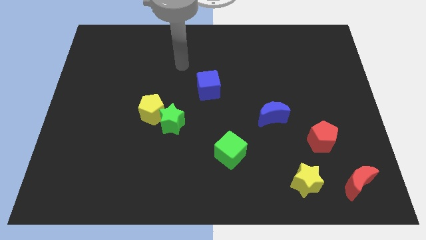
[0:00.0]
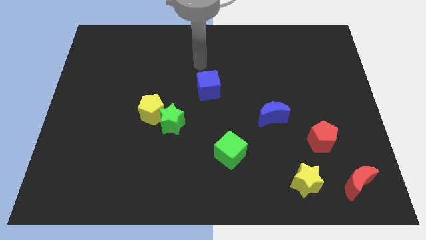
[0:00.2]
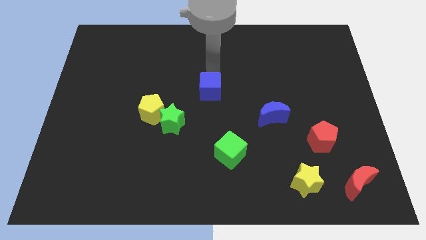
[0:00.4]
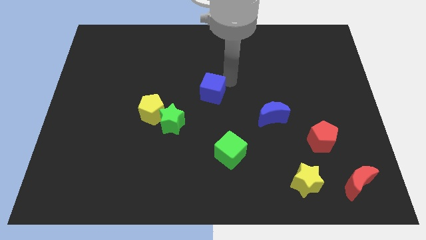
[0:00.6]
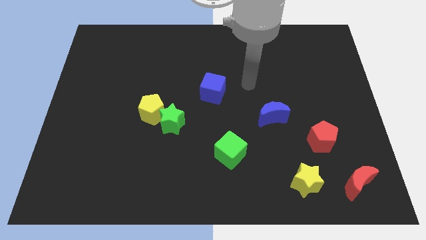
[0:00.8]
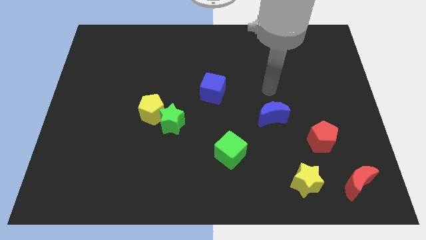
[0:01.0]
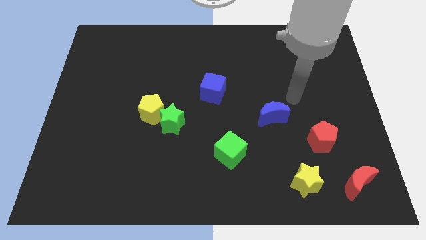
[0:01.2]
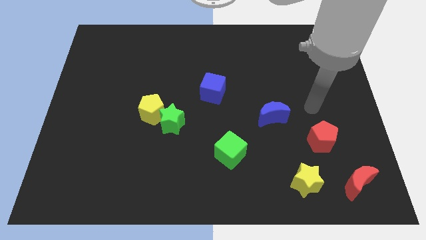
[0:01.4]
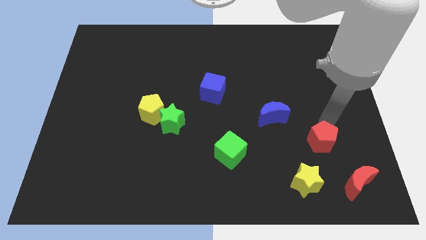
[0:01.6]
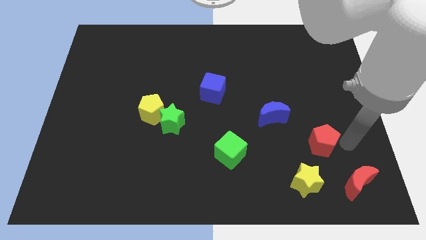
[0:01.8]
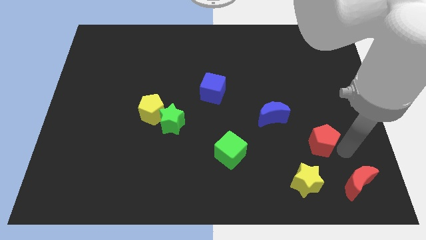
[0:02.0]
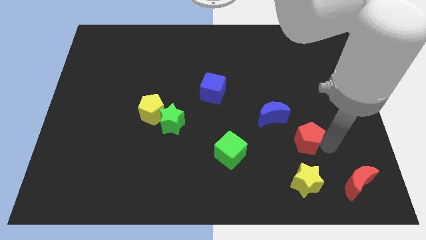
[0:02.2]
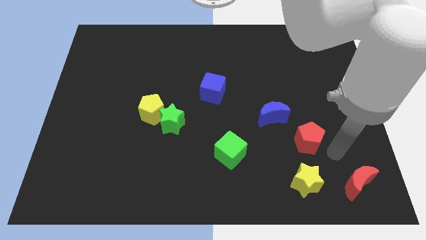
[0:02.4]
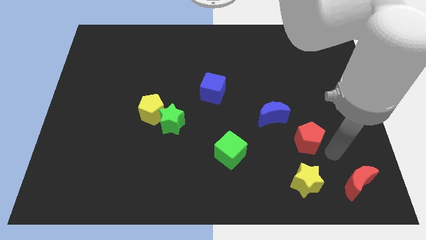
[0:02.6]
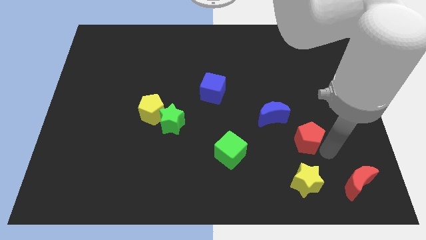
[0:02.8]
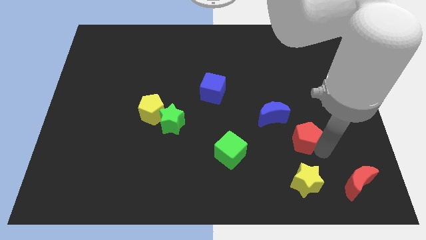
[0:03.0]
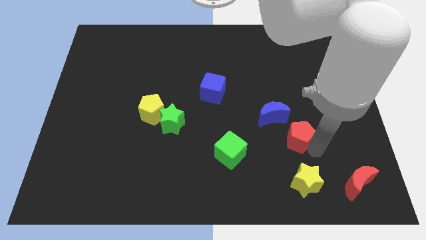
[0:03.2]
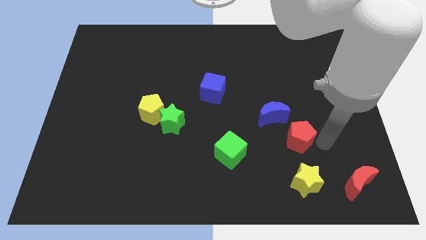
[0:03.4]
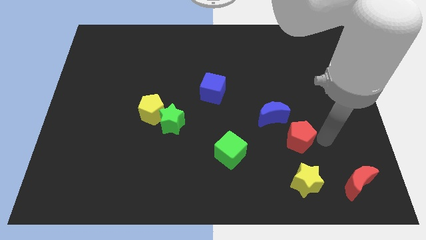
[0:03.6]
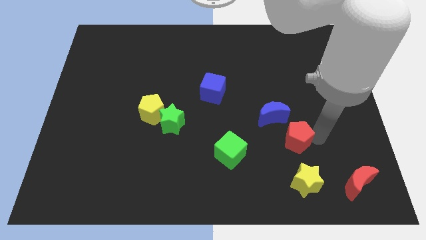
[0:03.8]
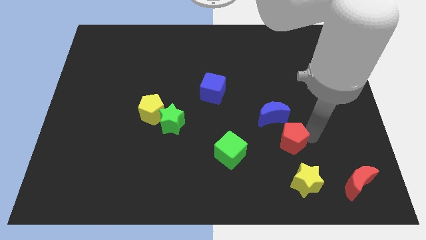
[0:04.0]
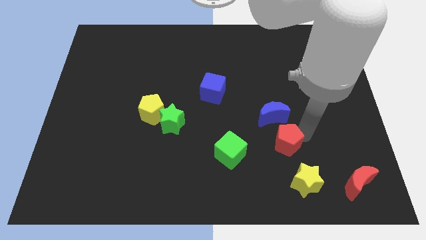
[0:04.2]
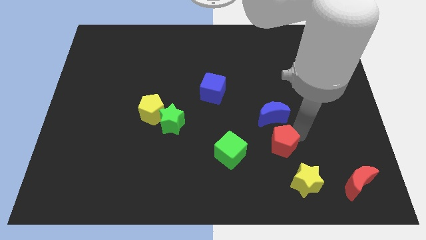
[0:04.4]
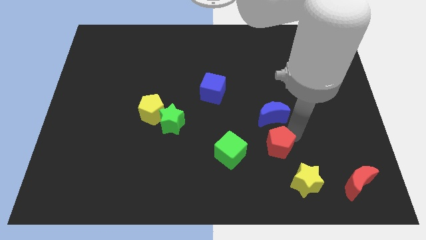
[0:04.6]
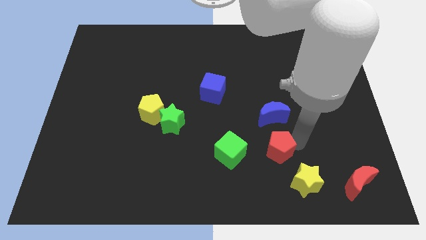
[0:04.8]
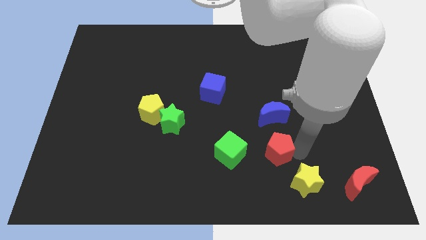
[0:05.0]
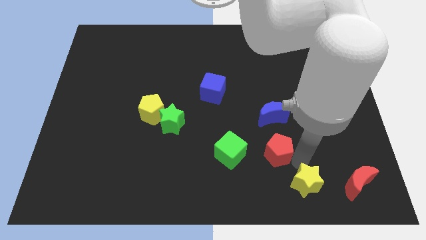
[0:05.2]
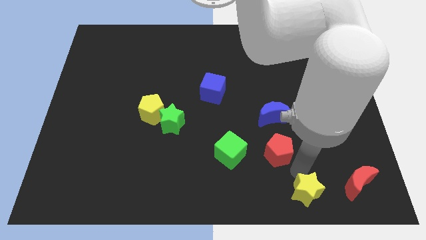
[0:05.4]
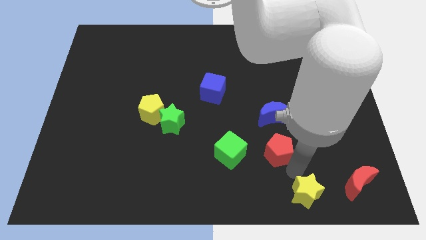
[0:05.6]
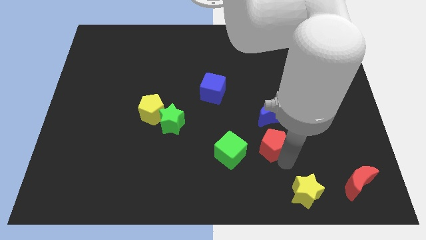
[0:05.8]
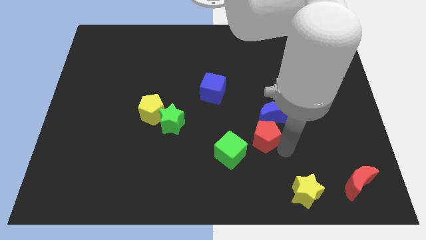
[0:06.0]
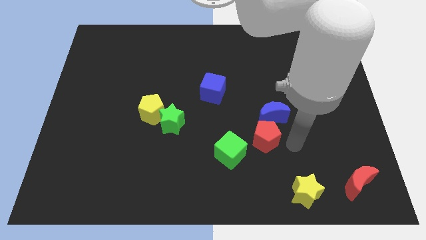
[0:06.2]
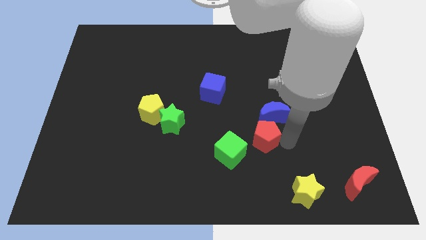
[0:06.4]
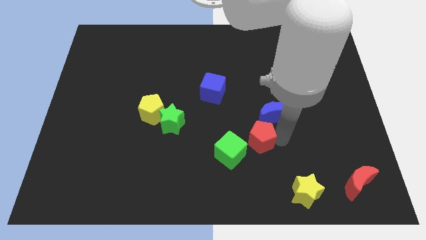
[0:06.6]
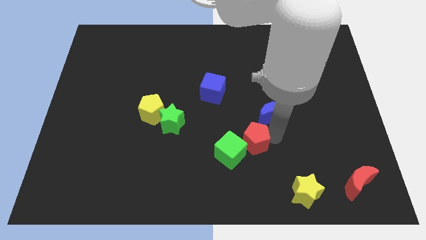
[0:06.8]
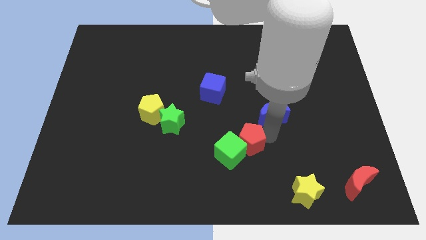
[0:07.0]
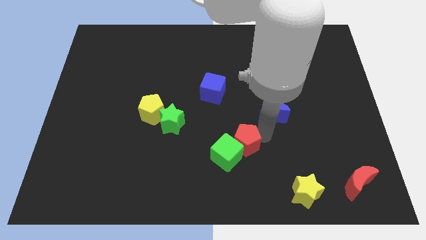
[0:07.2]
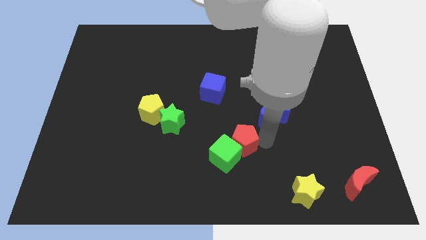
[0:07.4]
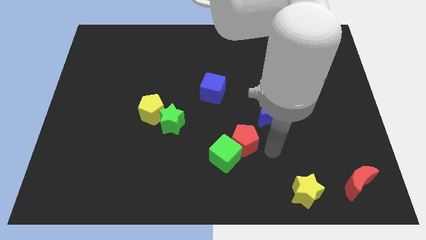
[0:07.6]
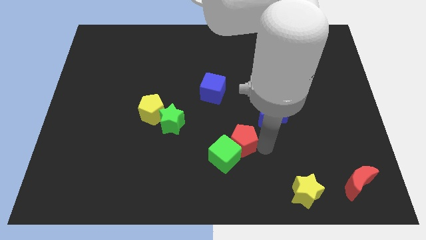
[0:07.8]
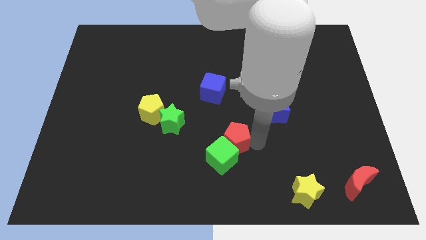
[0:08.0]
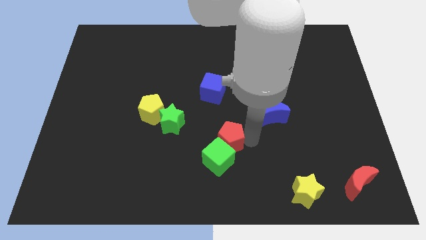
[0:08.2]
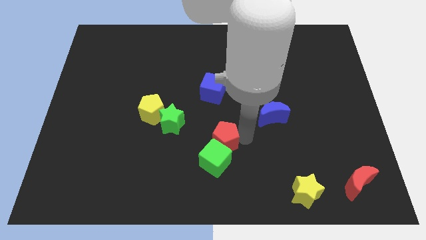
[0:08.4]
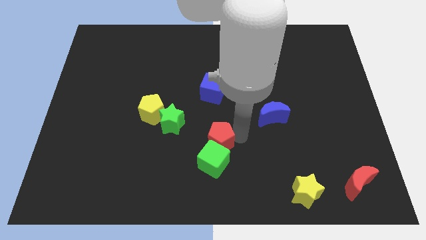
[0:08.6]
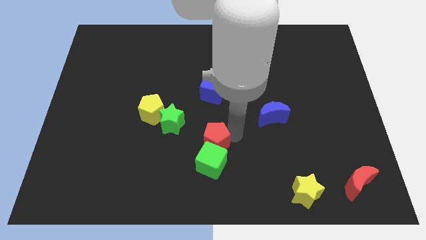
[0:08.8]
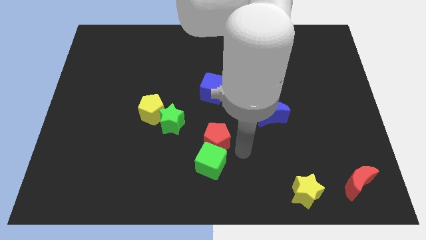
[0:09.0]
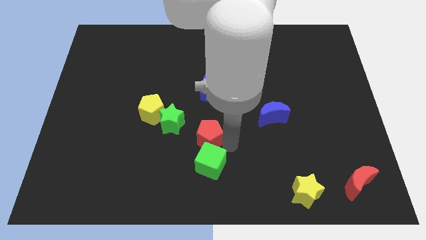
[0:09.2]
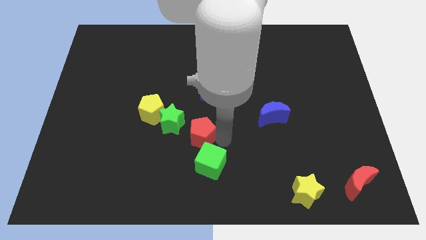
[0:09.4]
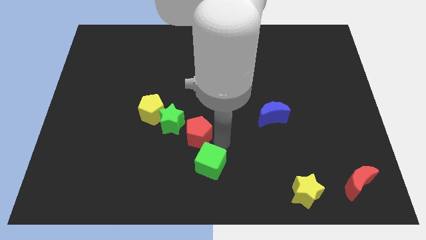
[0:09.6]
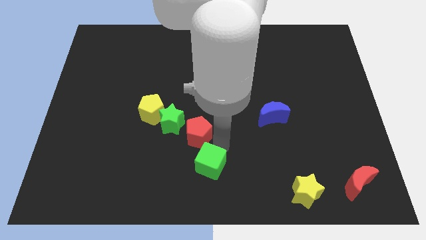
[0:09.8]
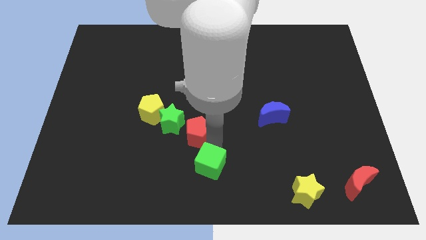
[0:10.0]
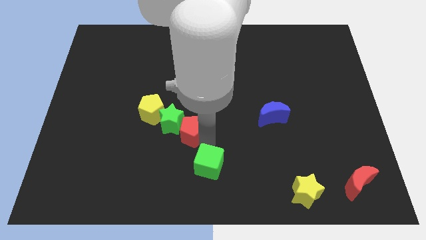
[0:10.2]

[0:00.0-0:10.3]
slide the red pentagon next to the green star

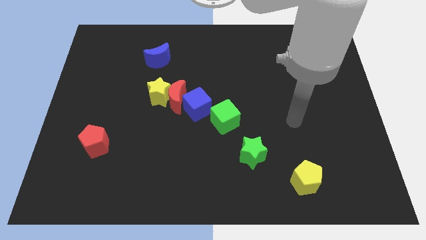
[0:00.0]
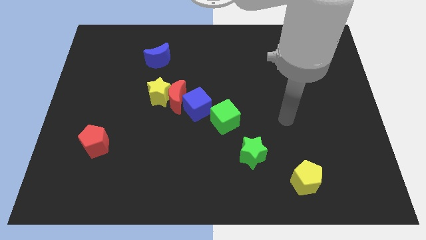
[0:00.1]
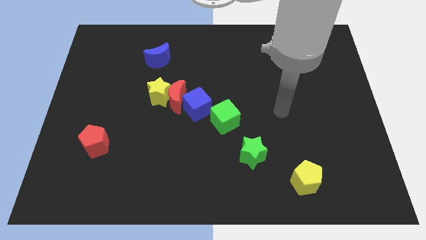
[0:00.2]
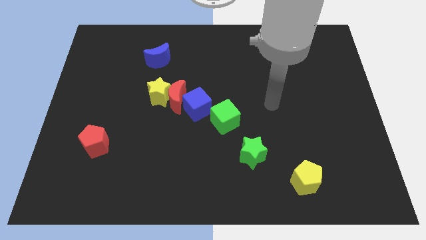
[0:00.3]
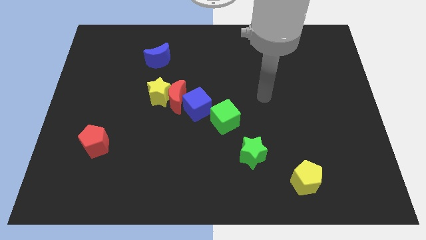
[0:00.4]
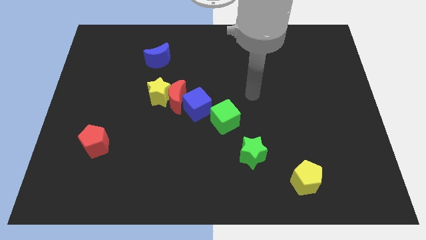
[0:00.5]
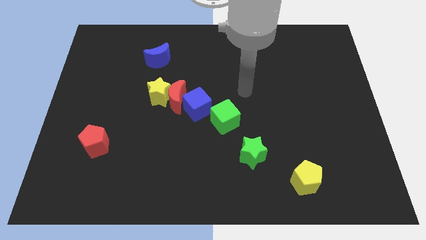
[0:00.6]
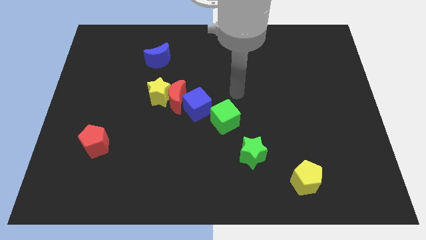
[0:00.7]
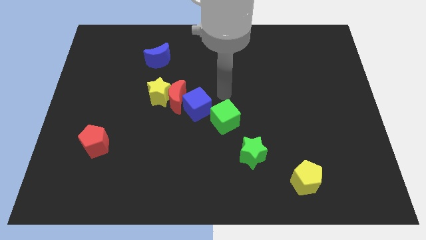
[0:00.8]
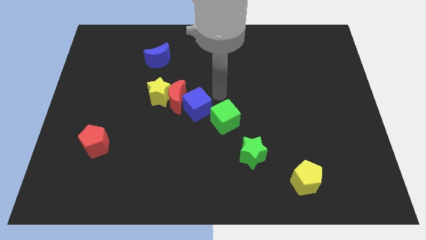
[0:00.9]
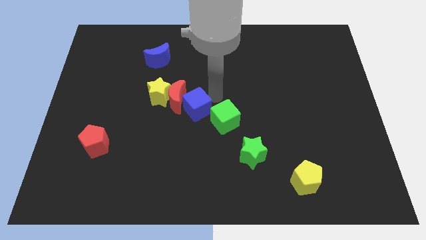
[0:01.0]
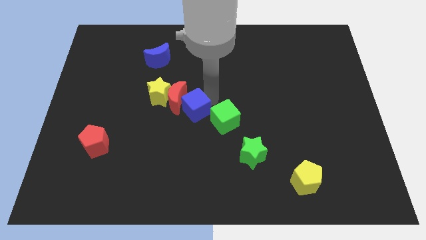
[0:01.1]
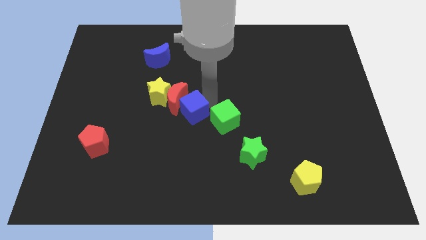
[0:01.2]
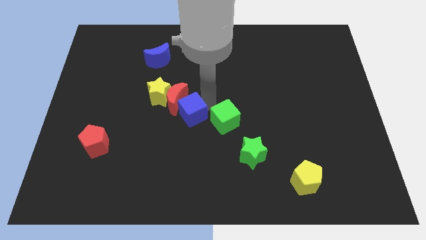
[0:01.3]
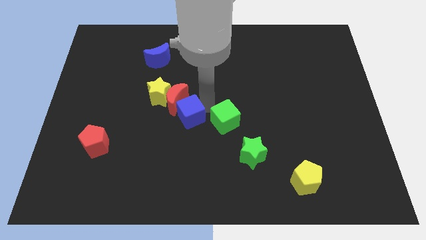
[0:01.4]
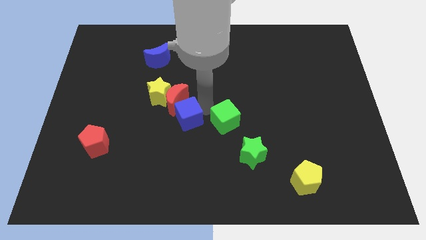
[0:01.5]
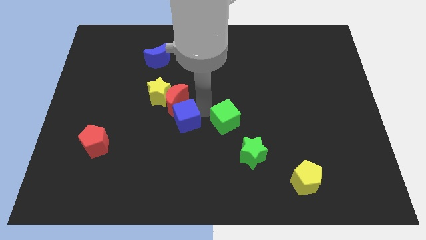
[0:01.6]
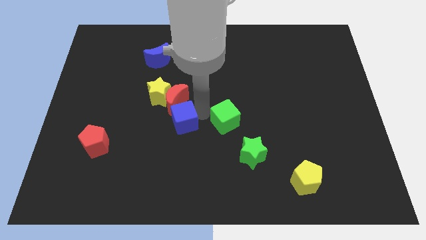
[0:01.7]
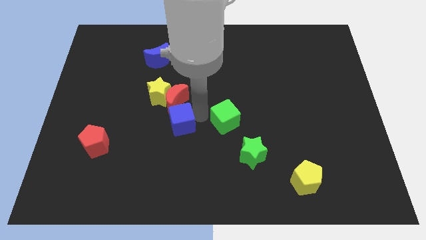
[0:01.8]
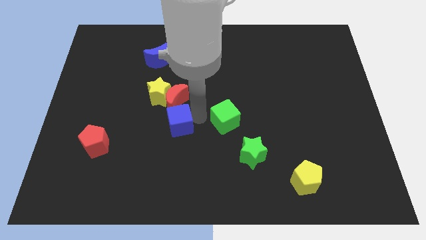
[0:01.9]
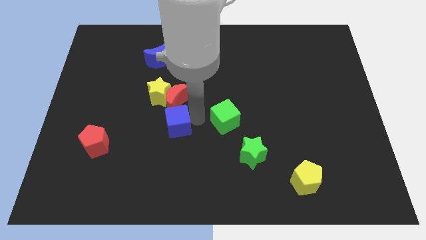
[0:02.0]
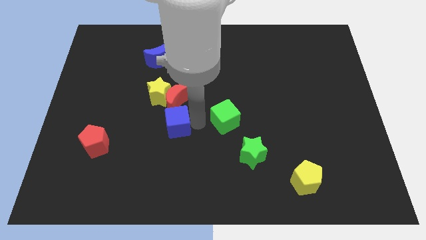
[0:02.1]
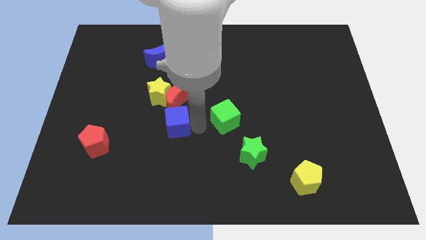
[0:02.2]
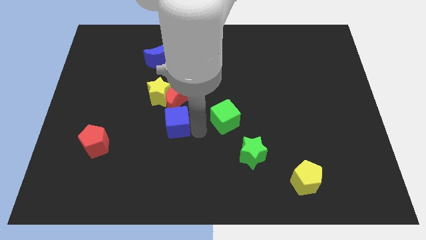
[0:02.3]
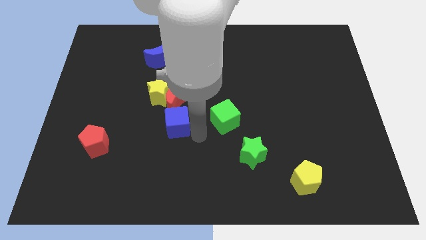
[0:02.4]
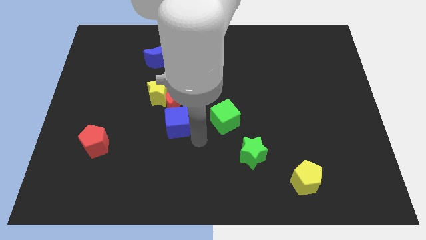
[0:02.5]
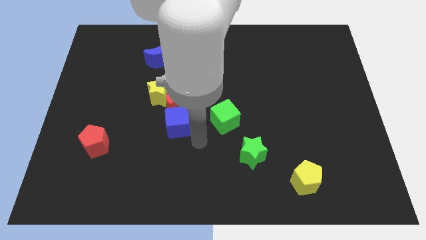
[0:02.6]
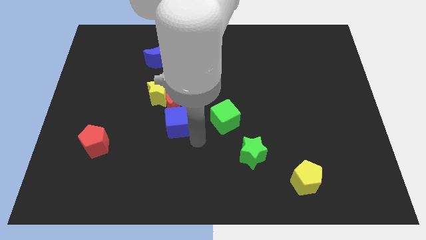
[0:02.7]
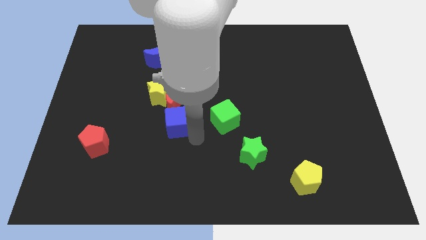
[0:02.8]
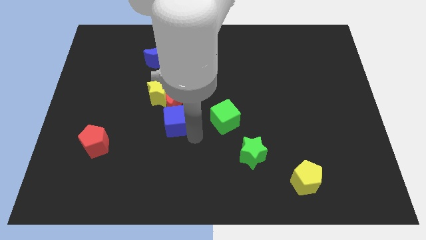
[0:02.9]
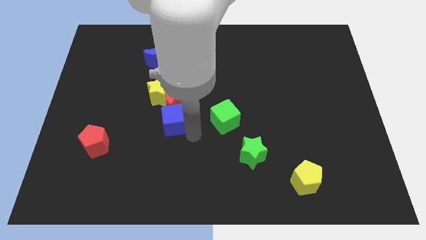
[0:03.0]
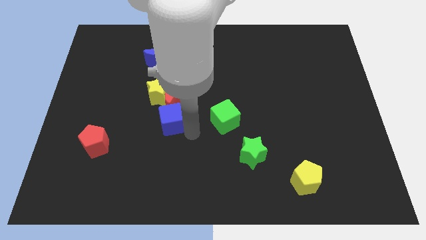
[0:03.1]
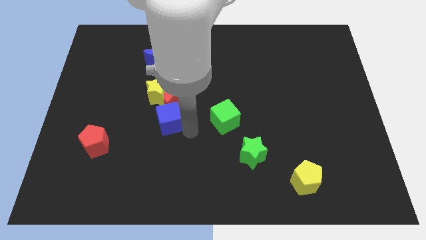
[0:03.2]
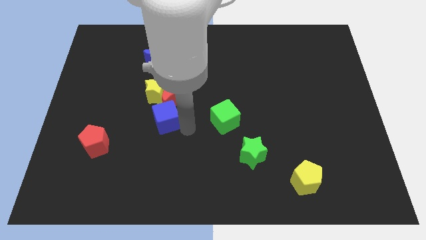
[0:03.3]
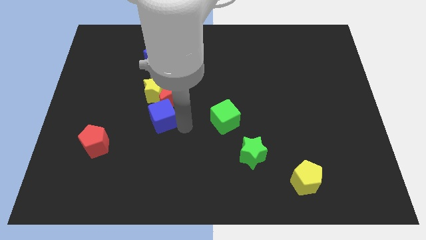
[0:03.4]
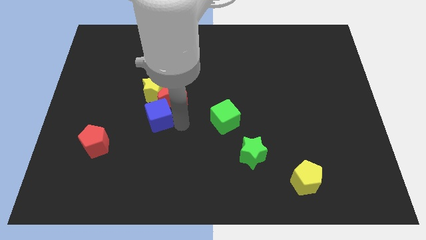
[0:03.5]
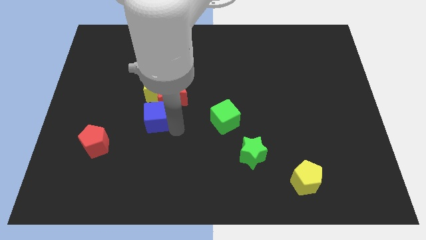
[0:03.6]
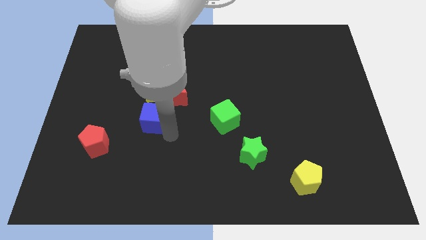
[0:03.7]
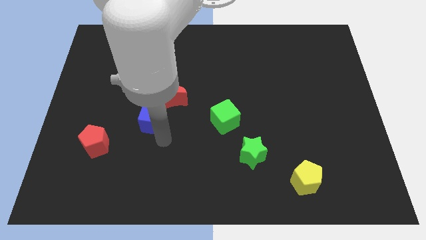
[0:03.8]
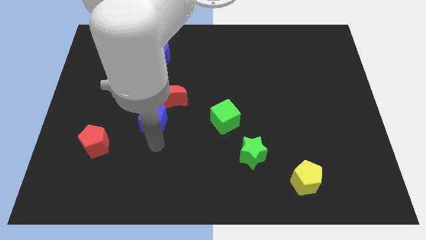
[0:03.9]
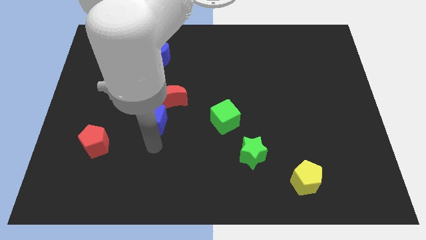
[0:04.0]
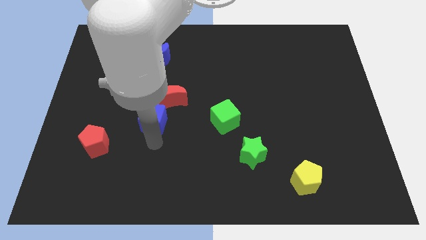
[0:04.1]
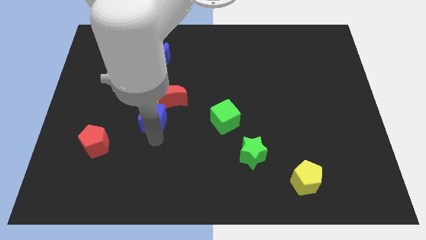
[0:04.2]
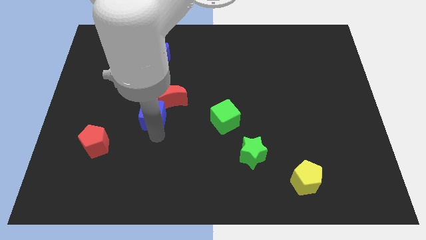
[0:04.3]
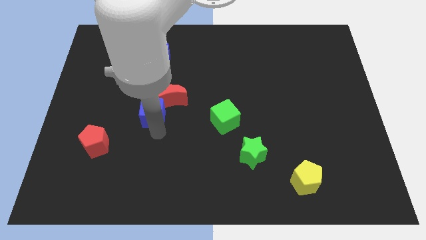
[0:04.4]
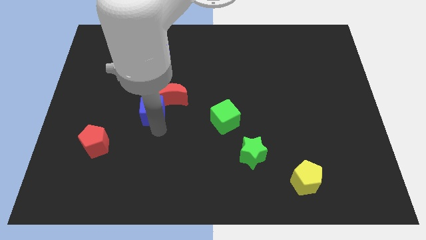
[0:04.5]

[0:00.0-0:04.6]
put the blue cube next to the yellow star
